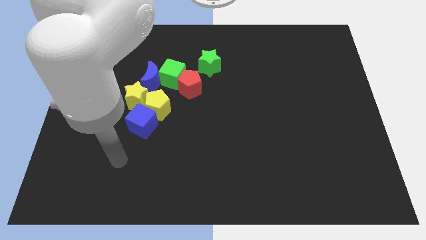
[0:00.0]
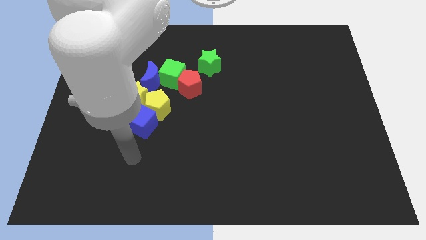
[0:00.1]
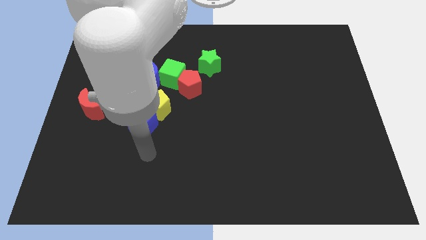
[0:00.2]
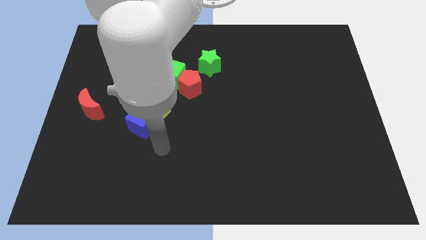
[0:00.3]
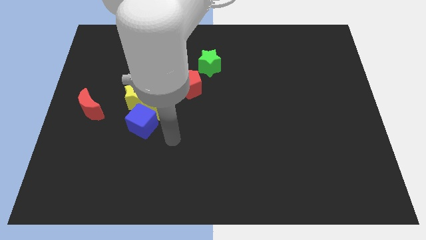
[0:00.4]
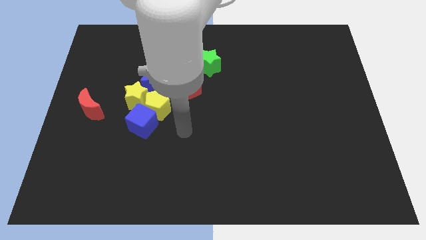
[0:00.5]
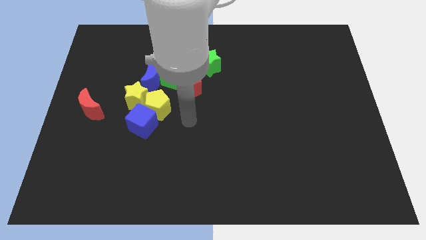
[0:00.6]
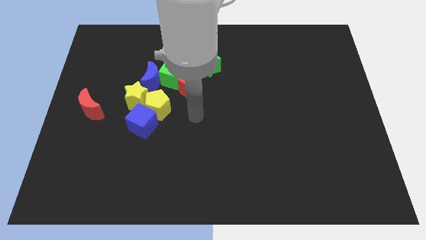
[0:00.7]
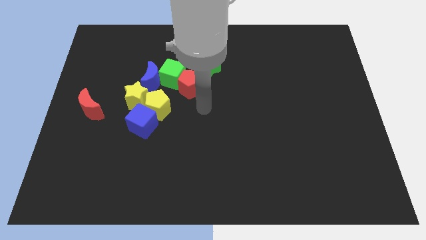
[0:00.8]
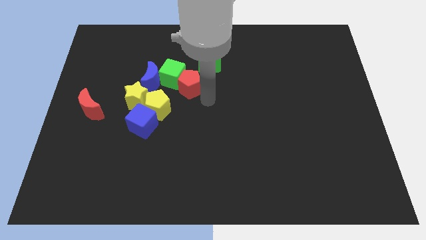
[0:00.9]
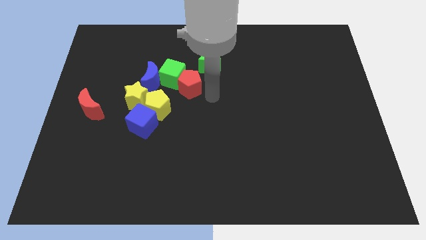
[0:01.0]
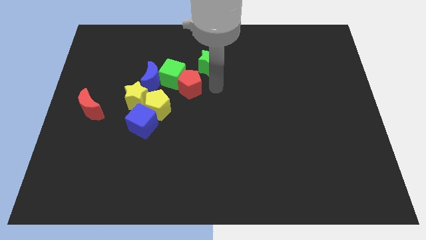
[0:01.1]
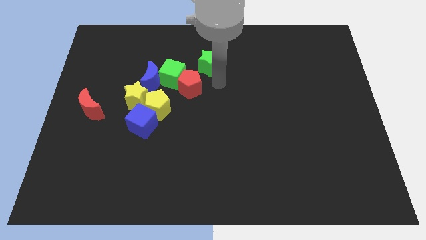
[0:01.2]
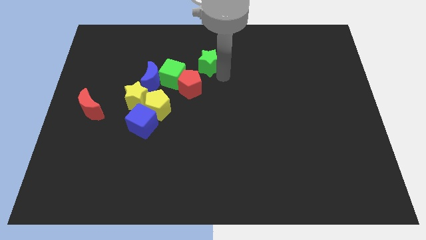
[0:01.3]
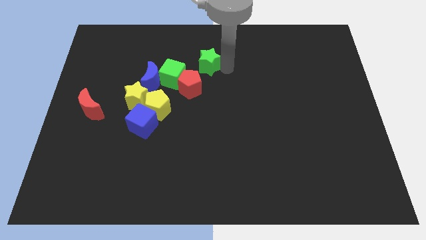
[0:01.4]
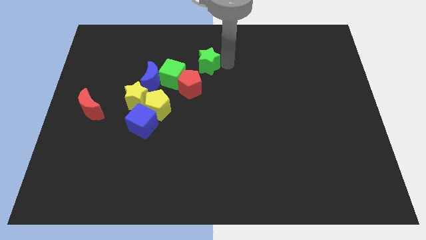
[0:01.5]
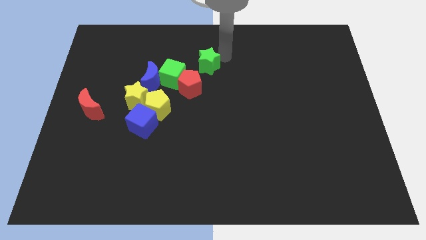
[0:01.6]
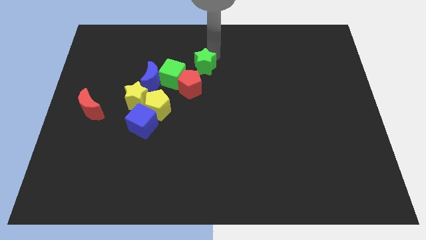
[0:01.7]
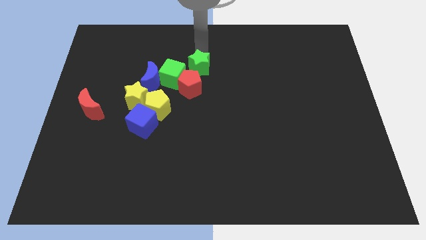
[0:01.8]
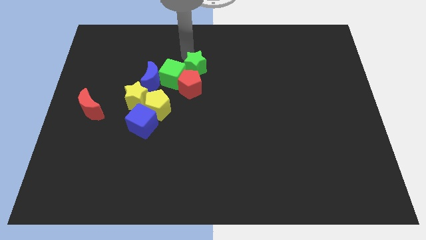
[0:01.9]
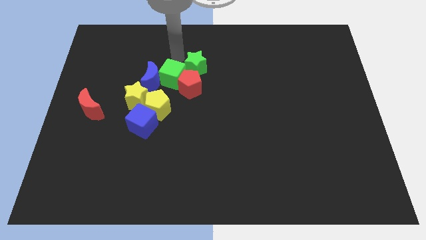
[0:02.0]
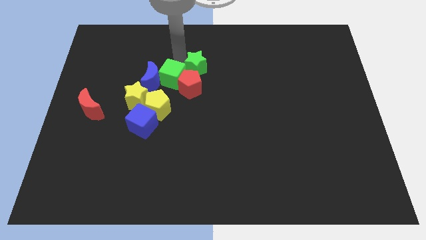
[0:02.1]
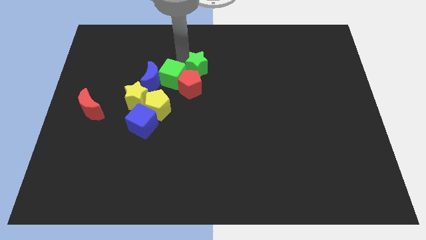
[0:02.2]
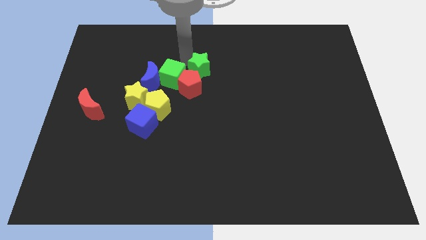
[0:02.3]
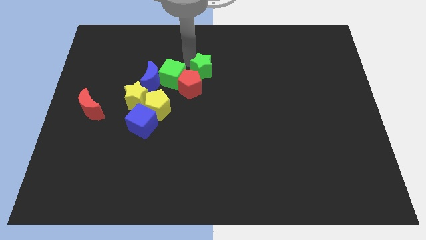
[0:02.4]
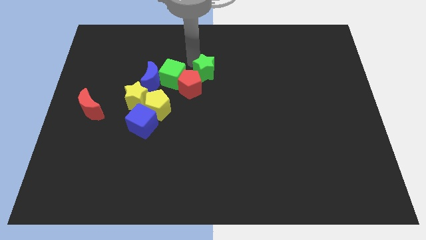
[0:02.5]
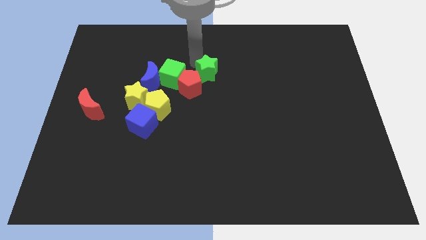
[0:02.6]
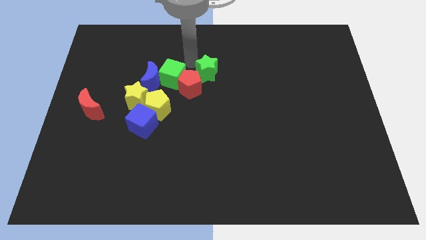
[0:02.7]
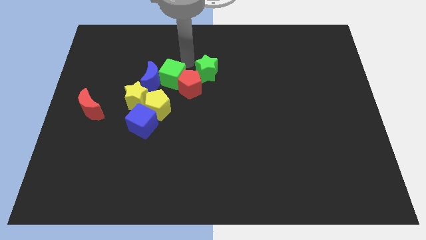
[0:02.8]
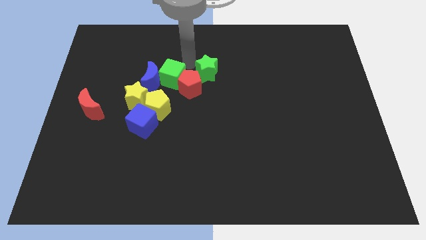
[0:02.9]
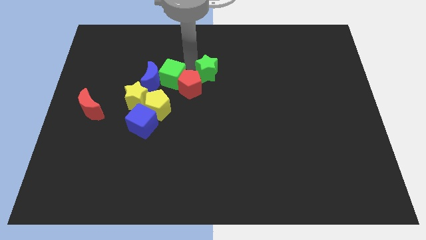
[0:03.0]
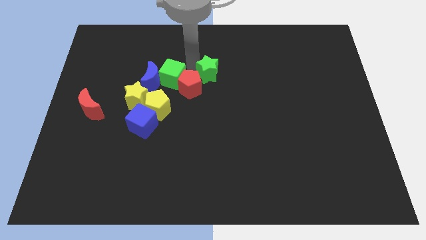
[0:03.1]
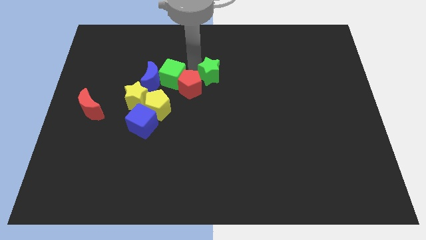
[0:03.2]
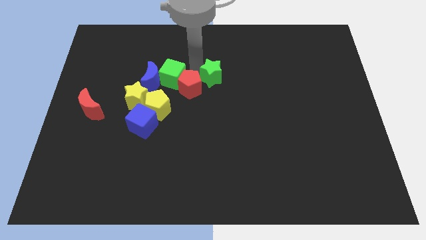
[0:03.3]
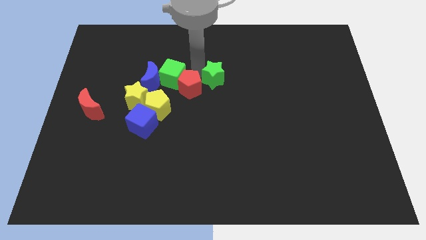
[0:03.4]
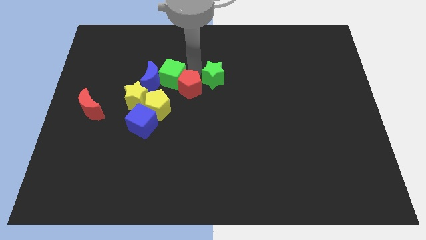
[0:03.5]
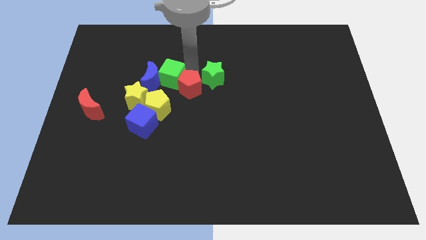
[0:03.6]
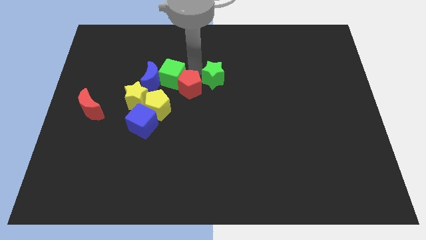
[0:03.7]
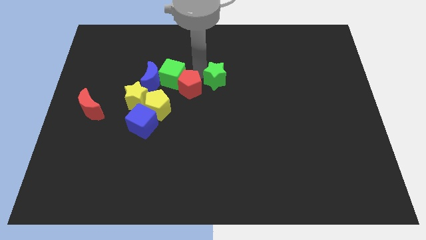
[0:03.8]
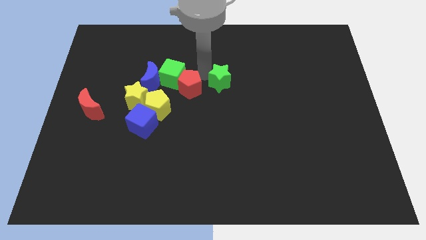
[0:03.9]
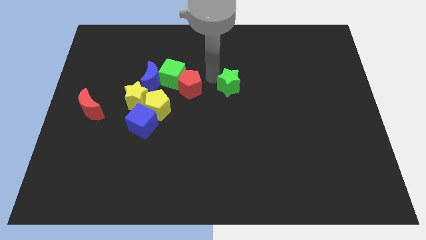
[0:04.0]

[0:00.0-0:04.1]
slide the green star diagonally downwards and to the right somewhat

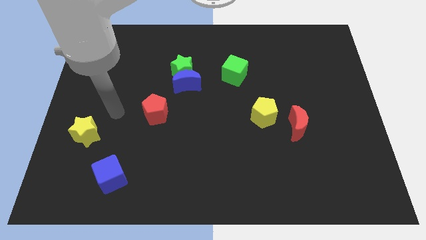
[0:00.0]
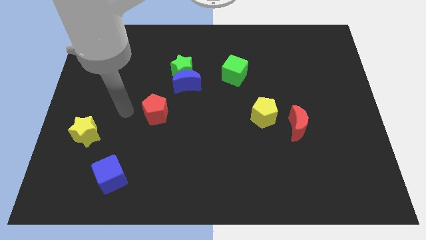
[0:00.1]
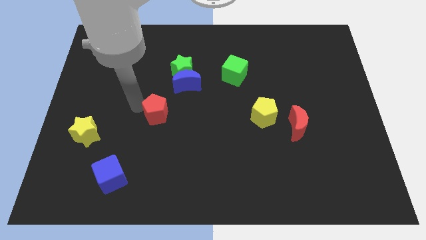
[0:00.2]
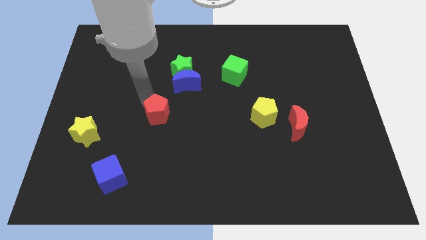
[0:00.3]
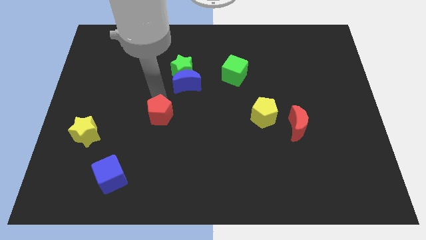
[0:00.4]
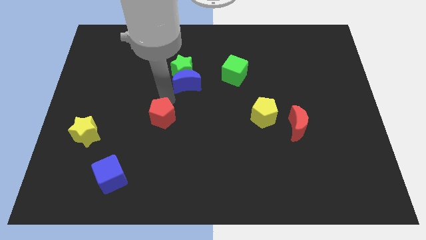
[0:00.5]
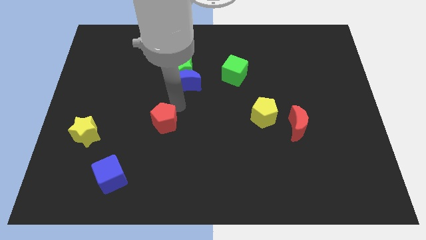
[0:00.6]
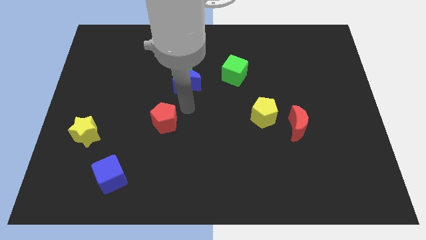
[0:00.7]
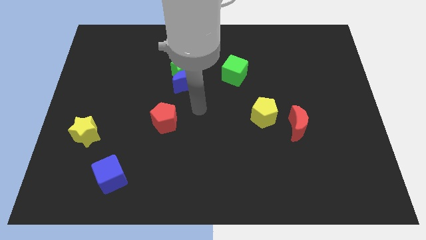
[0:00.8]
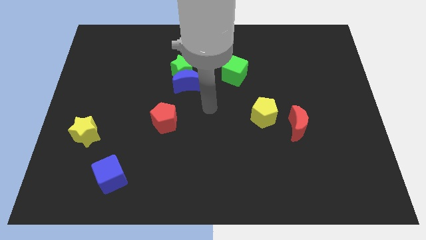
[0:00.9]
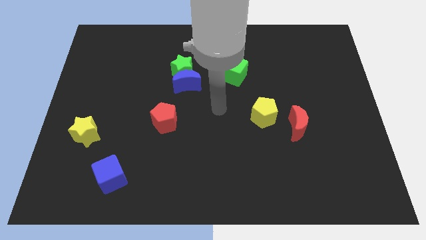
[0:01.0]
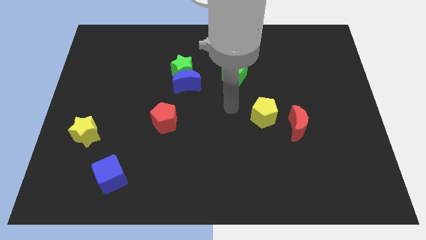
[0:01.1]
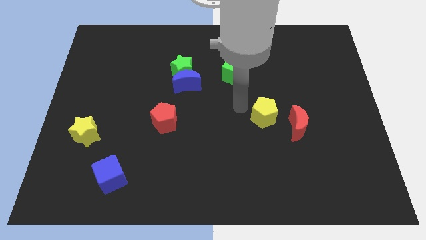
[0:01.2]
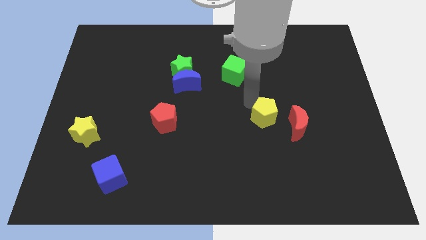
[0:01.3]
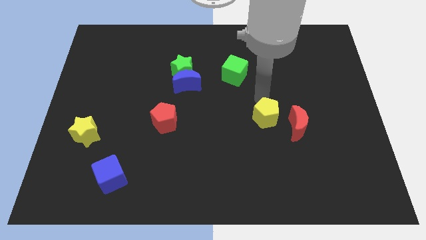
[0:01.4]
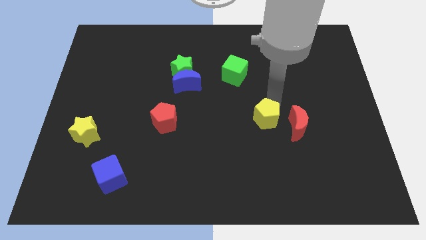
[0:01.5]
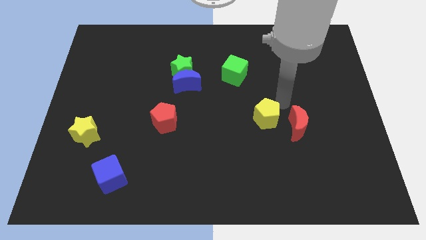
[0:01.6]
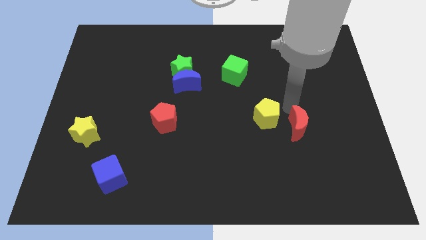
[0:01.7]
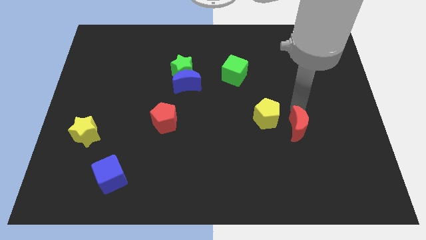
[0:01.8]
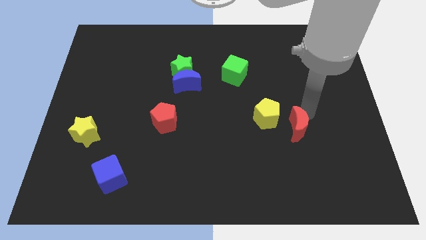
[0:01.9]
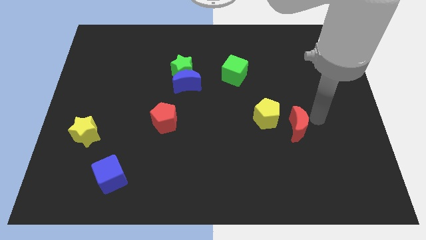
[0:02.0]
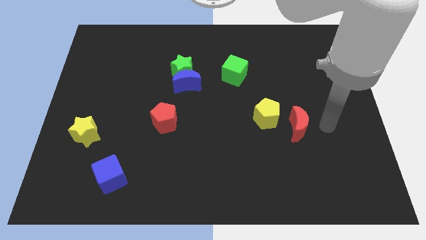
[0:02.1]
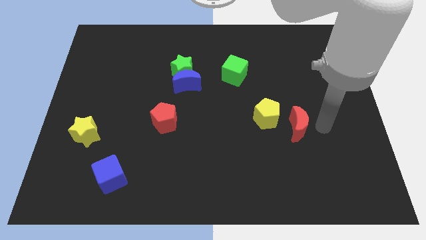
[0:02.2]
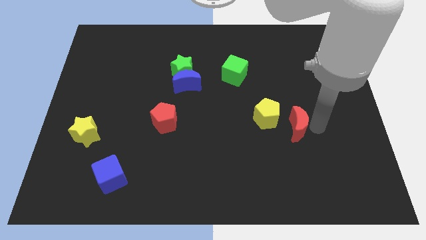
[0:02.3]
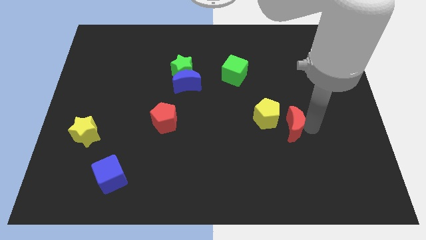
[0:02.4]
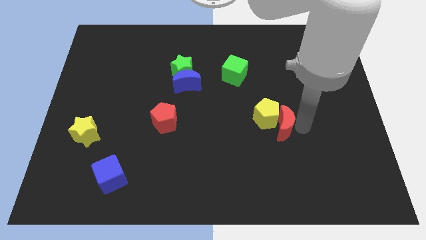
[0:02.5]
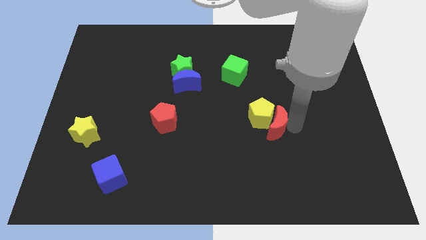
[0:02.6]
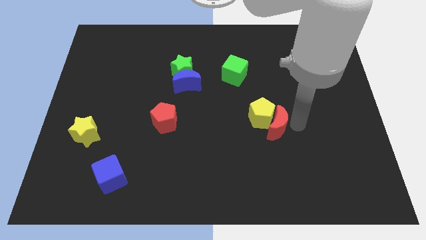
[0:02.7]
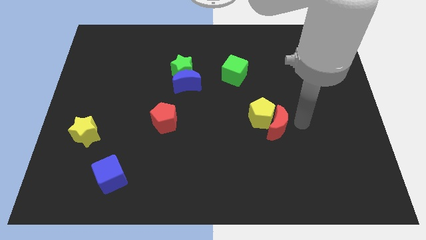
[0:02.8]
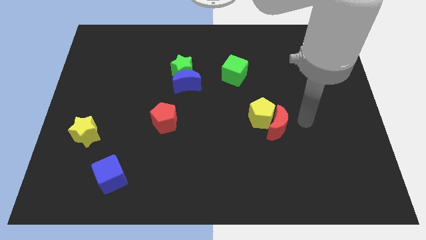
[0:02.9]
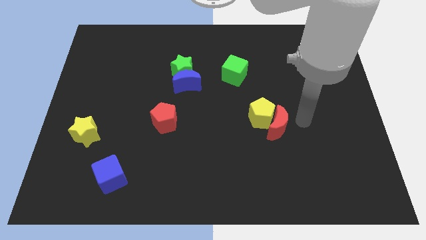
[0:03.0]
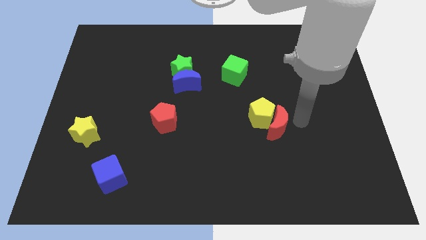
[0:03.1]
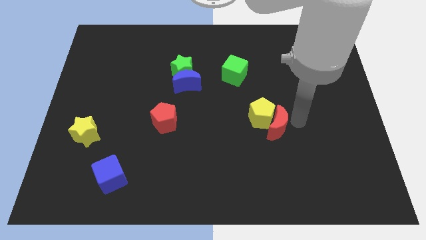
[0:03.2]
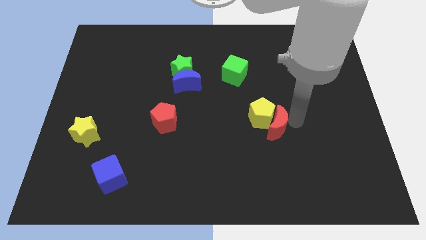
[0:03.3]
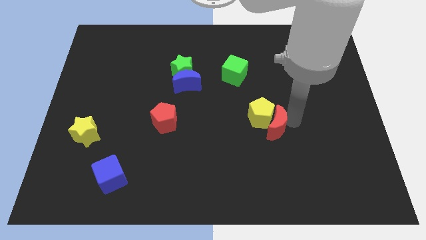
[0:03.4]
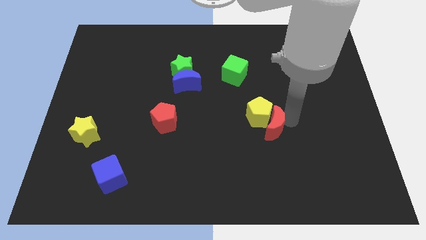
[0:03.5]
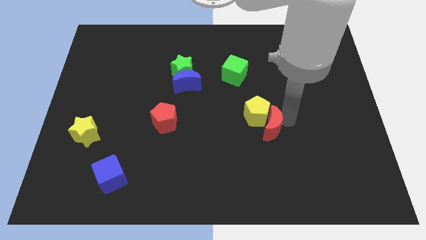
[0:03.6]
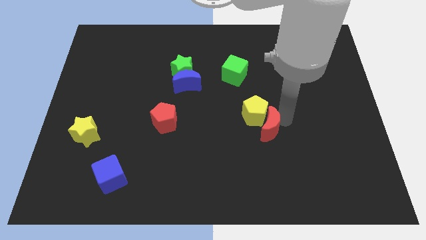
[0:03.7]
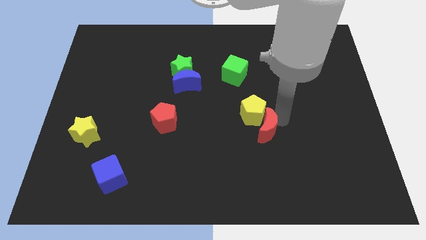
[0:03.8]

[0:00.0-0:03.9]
slightly slide the red moon left
